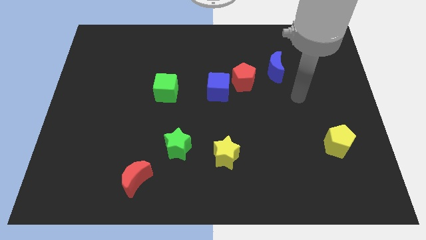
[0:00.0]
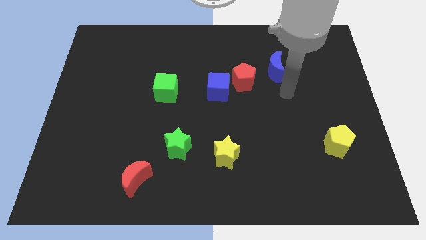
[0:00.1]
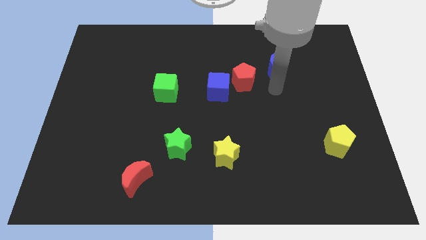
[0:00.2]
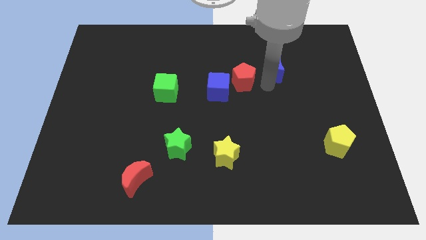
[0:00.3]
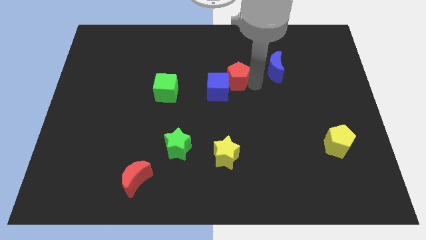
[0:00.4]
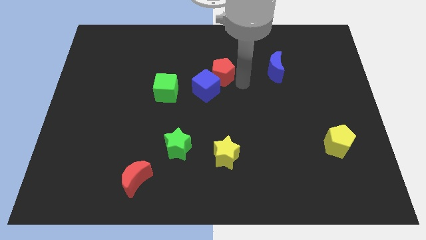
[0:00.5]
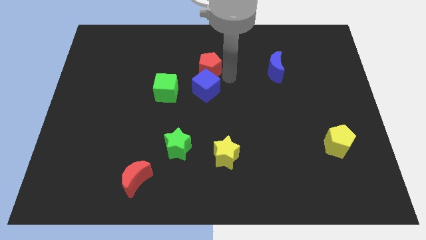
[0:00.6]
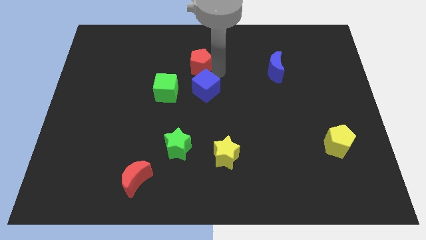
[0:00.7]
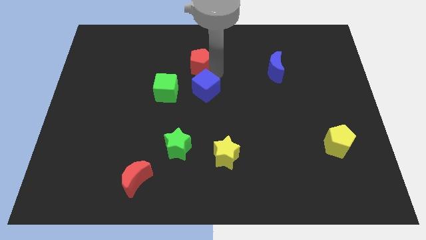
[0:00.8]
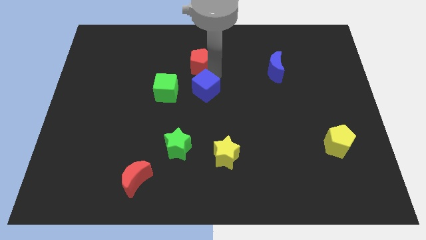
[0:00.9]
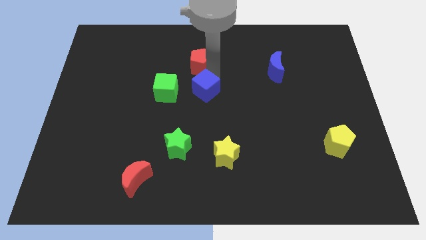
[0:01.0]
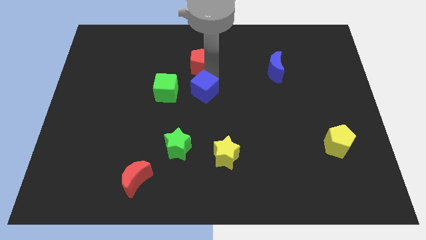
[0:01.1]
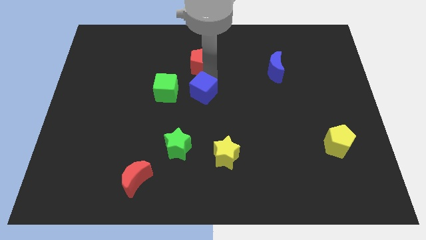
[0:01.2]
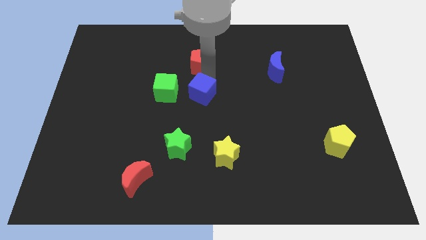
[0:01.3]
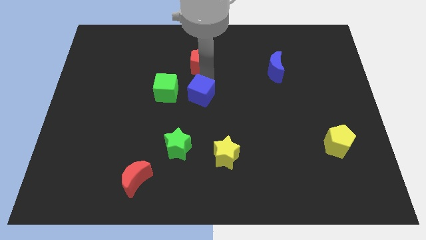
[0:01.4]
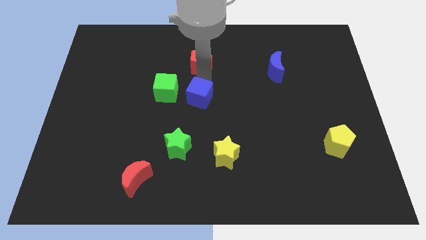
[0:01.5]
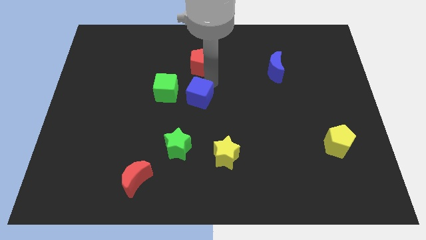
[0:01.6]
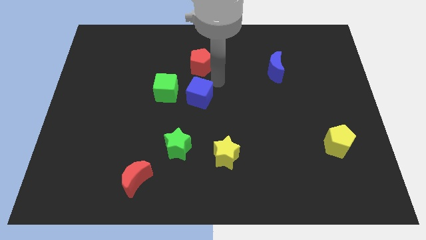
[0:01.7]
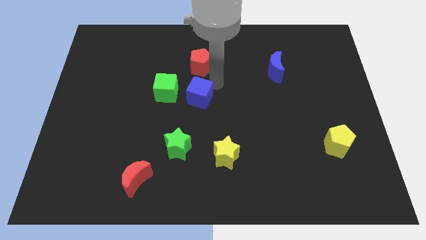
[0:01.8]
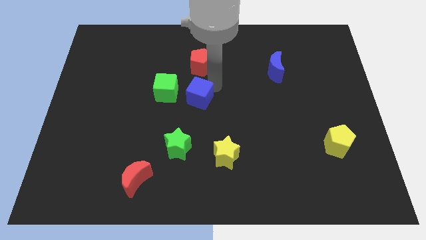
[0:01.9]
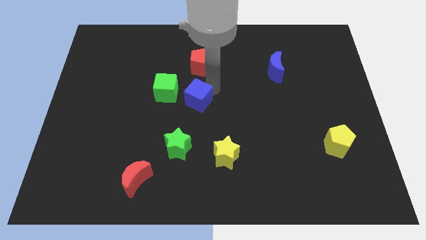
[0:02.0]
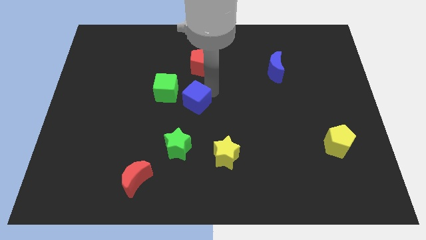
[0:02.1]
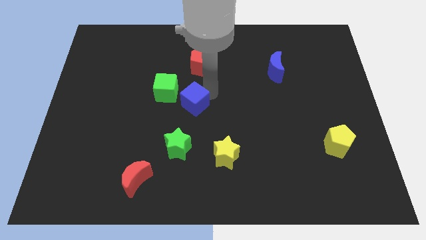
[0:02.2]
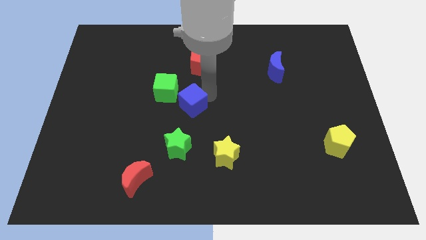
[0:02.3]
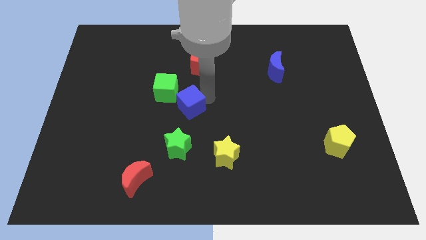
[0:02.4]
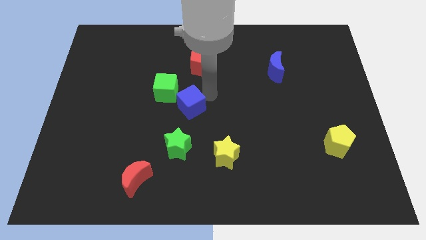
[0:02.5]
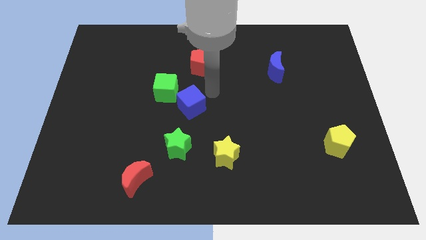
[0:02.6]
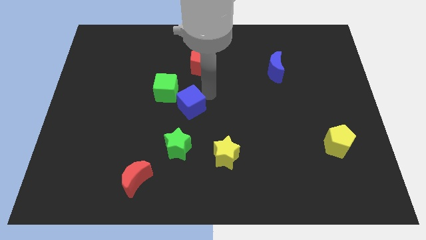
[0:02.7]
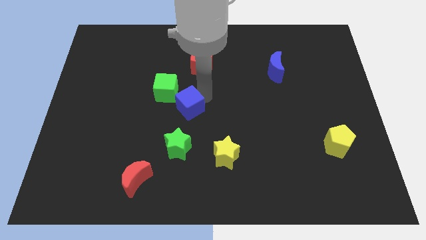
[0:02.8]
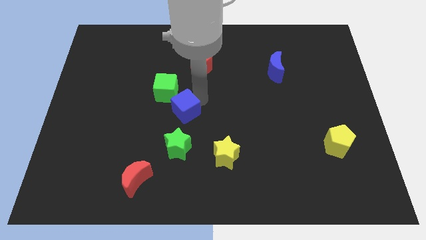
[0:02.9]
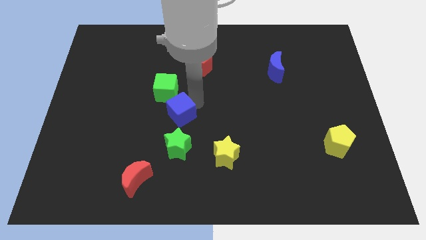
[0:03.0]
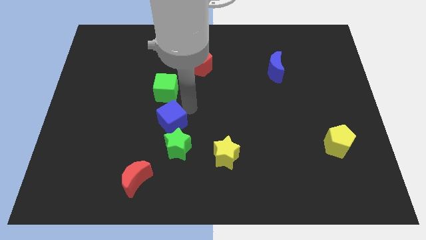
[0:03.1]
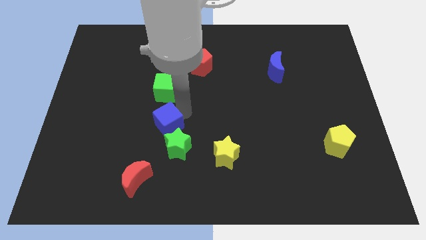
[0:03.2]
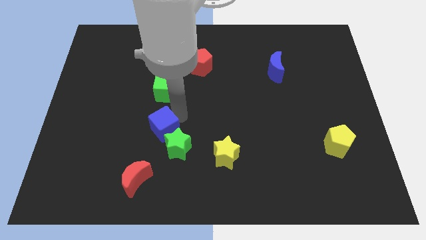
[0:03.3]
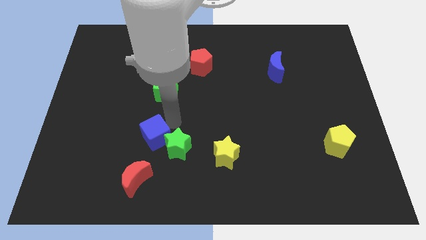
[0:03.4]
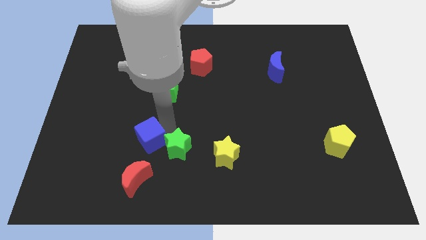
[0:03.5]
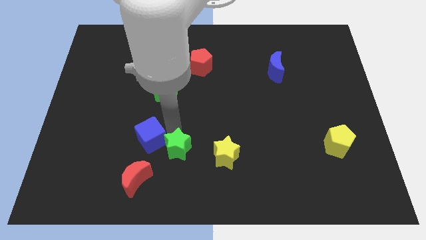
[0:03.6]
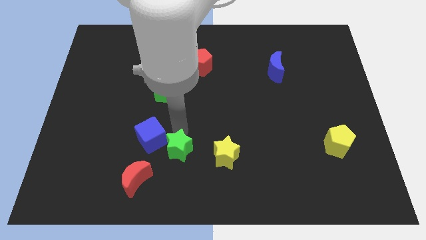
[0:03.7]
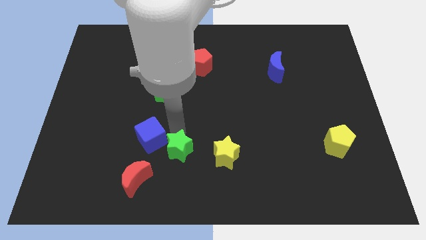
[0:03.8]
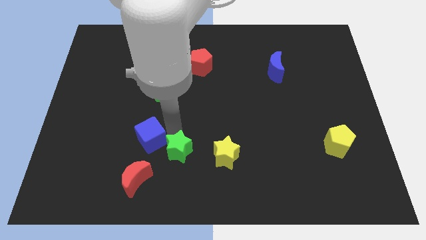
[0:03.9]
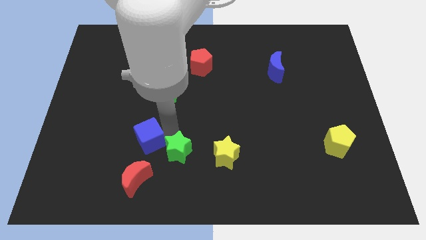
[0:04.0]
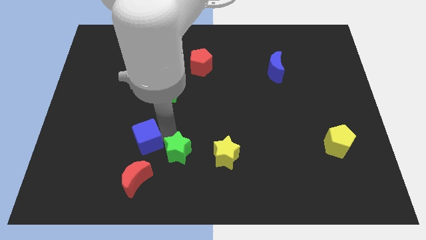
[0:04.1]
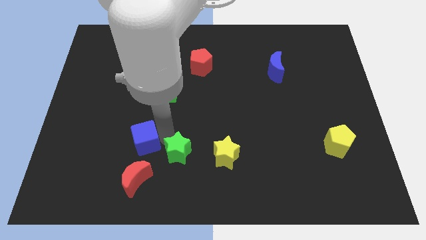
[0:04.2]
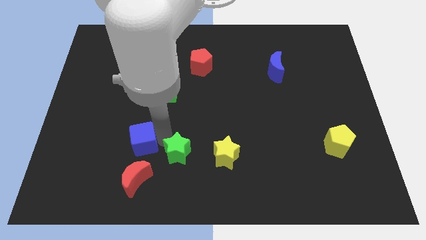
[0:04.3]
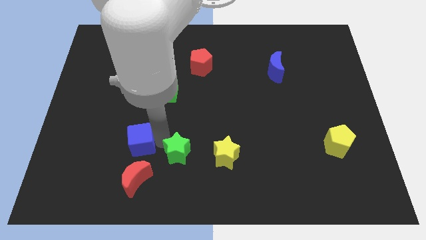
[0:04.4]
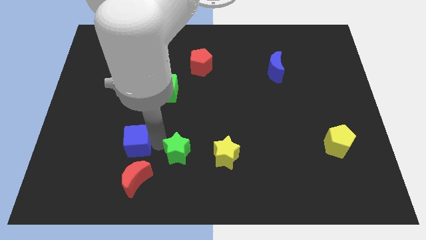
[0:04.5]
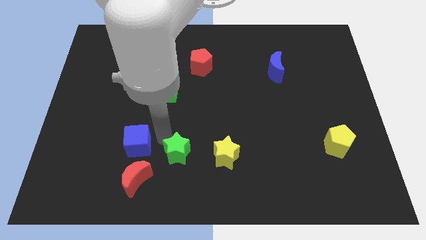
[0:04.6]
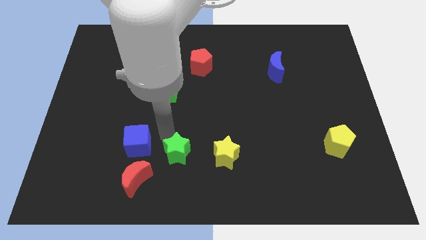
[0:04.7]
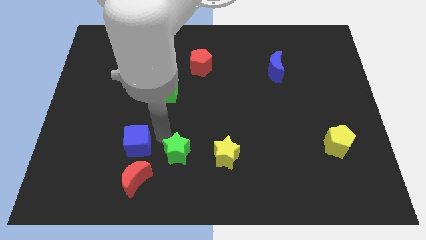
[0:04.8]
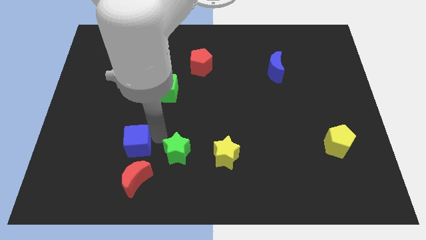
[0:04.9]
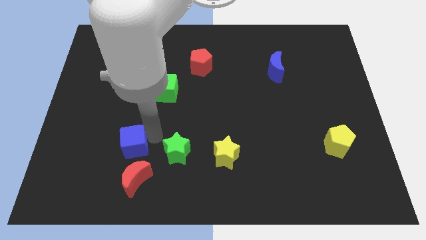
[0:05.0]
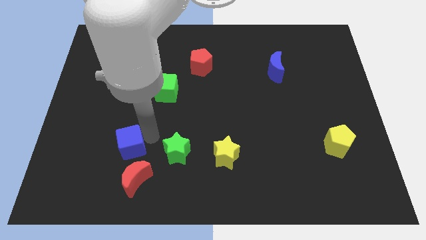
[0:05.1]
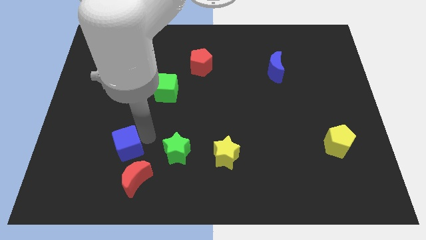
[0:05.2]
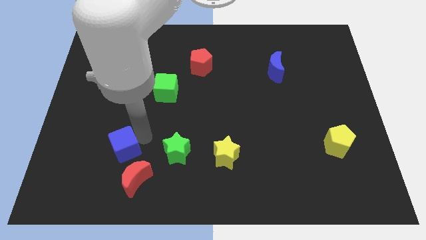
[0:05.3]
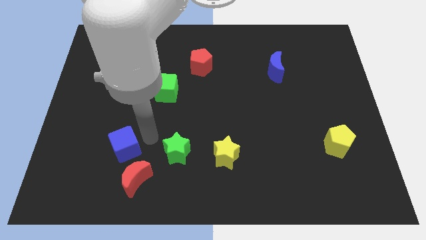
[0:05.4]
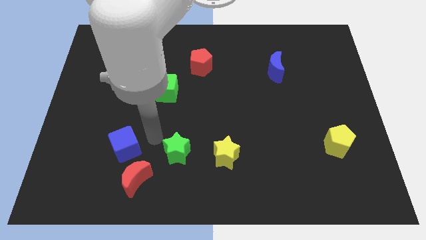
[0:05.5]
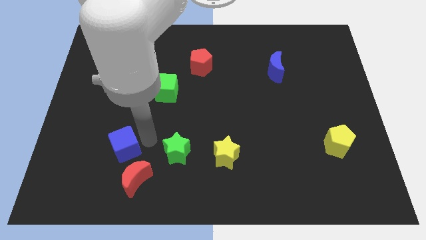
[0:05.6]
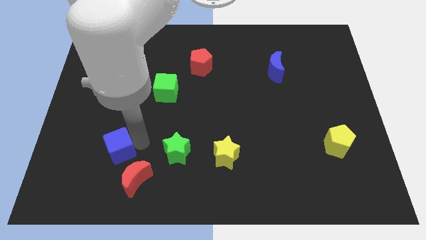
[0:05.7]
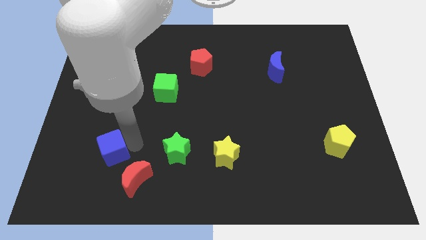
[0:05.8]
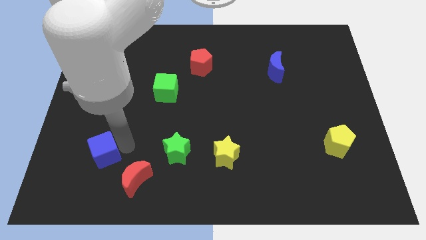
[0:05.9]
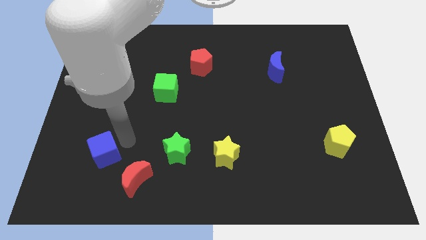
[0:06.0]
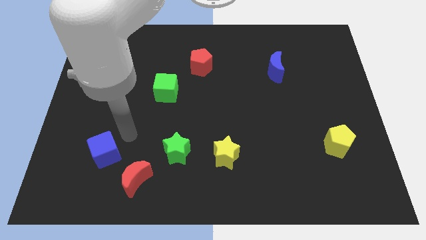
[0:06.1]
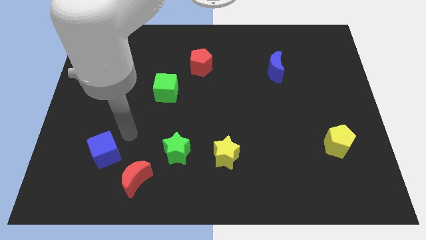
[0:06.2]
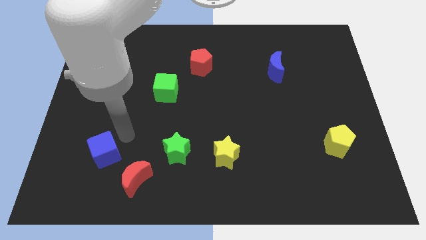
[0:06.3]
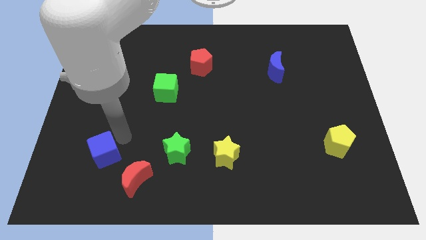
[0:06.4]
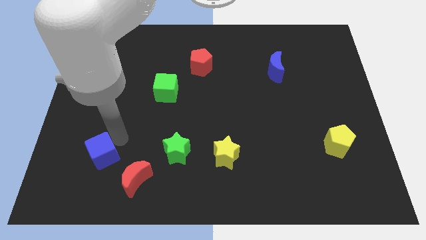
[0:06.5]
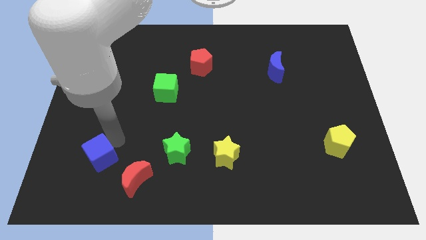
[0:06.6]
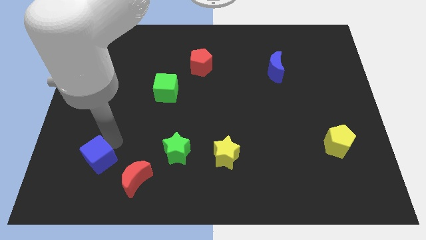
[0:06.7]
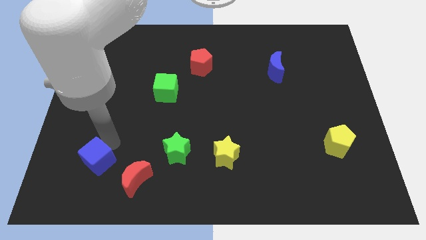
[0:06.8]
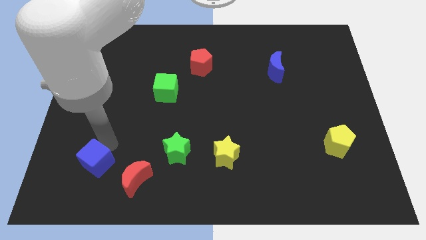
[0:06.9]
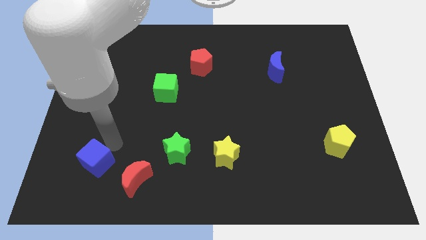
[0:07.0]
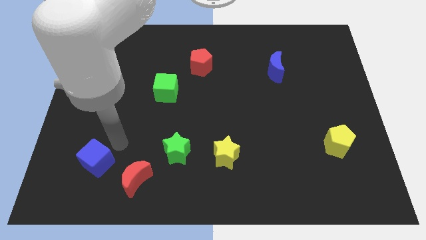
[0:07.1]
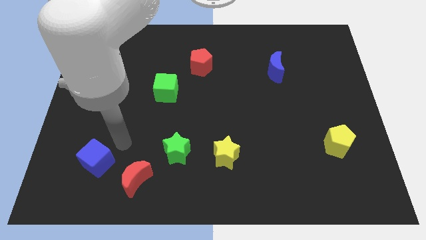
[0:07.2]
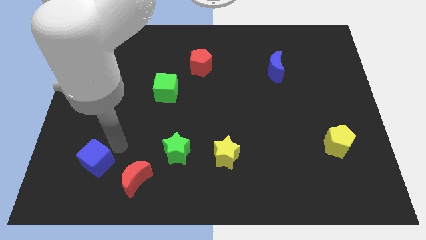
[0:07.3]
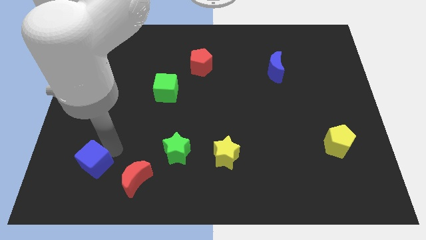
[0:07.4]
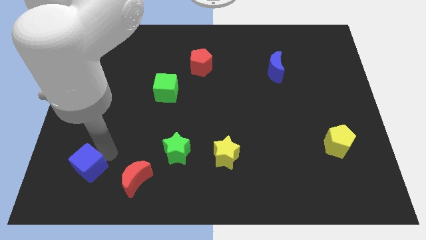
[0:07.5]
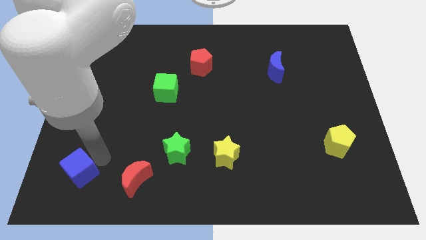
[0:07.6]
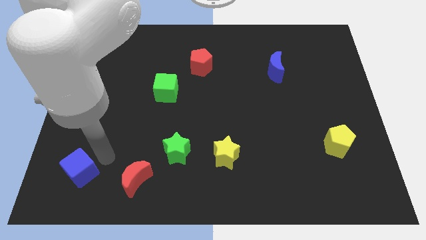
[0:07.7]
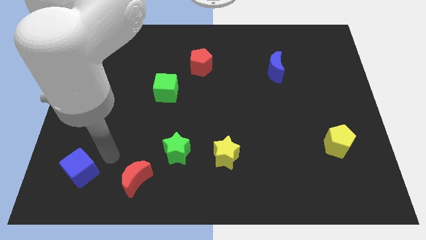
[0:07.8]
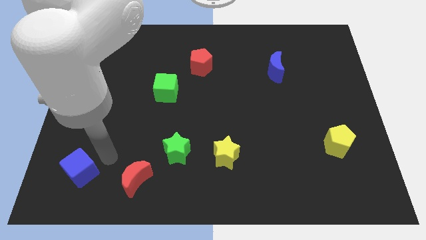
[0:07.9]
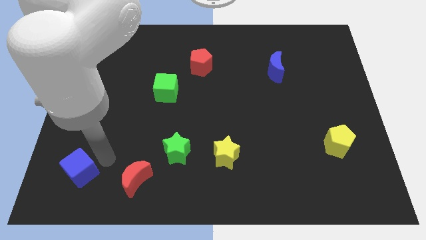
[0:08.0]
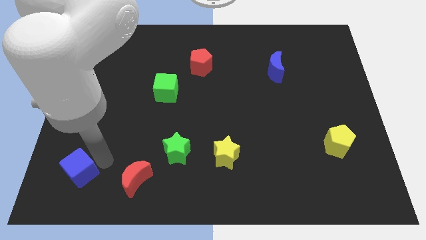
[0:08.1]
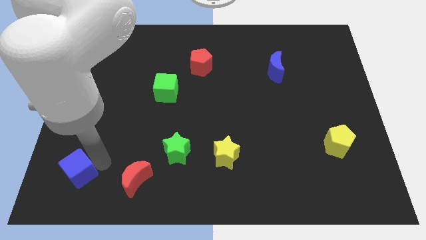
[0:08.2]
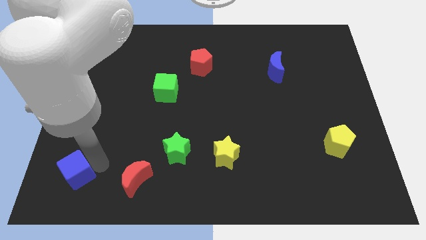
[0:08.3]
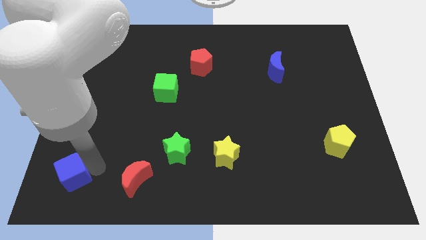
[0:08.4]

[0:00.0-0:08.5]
slide the blue cube to the bottom left
